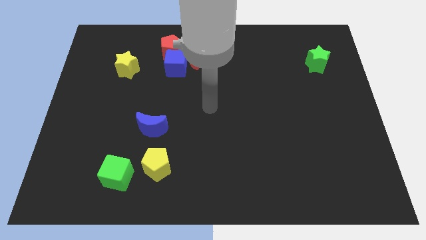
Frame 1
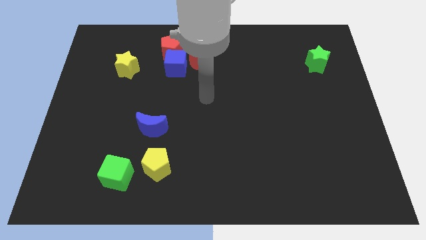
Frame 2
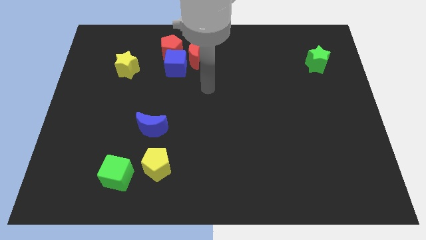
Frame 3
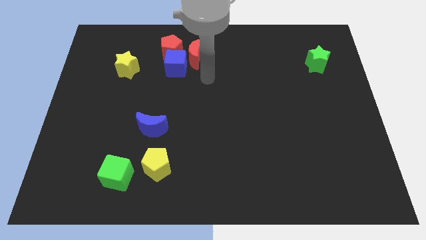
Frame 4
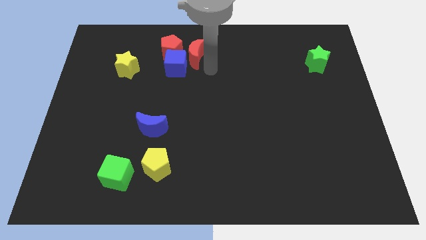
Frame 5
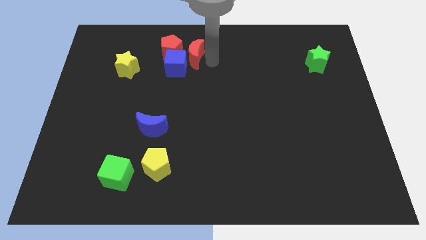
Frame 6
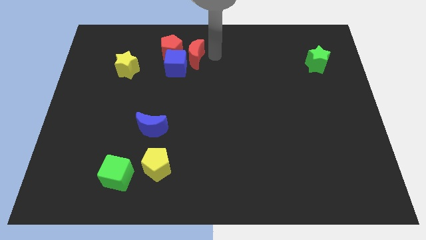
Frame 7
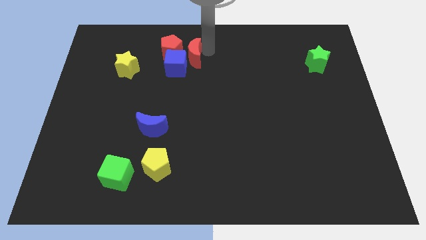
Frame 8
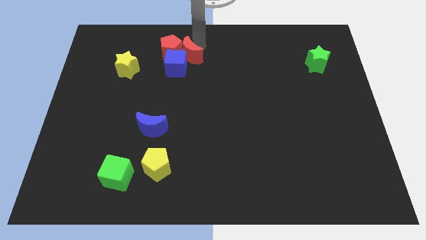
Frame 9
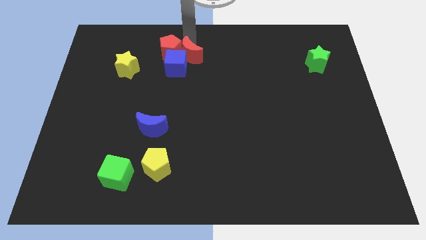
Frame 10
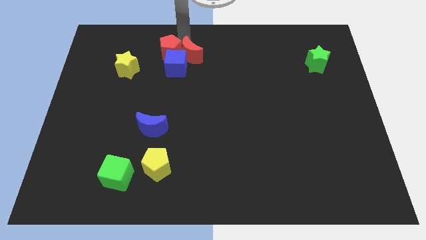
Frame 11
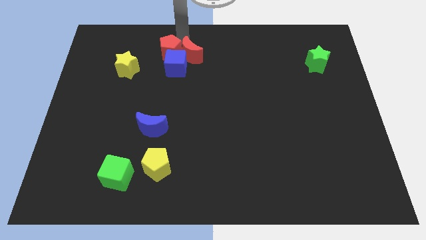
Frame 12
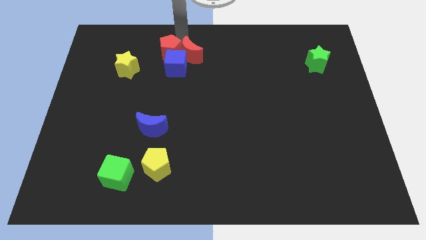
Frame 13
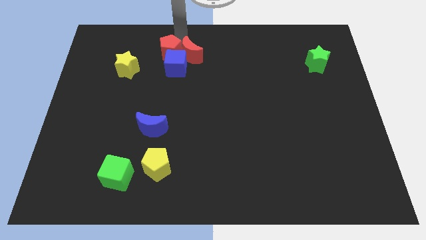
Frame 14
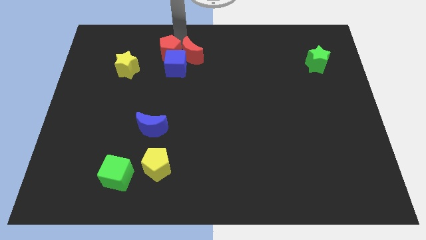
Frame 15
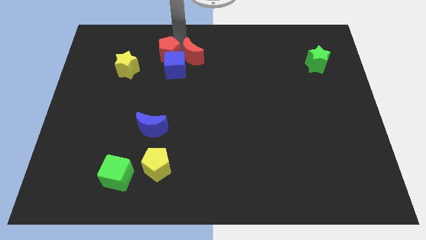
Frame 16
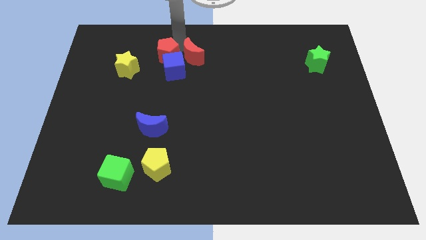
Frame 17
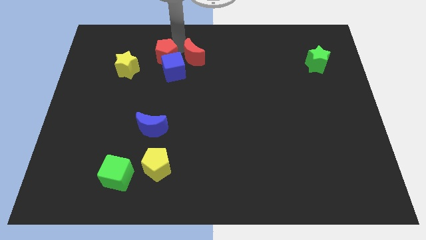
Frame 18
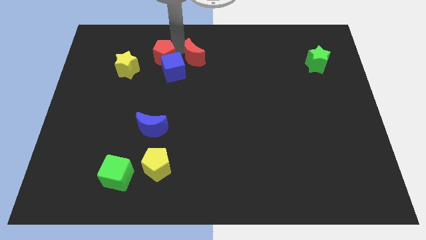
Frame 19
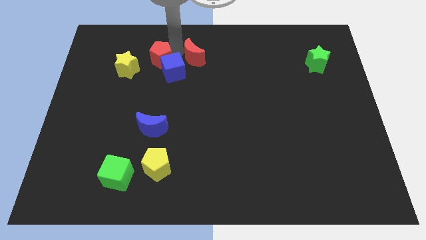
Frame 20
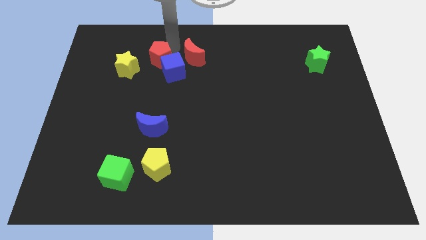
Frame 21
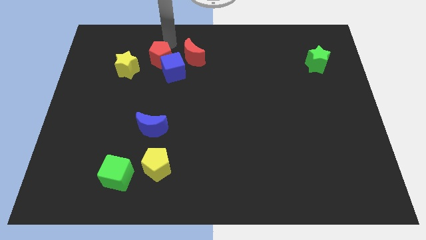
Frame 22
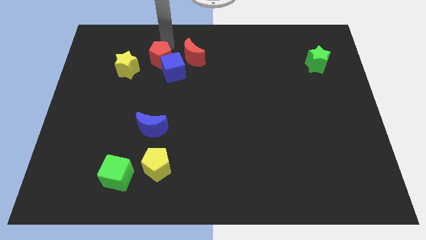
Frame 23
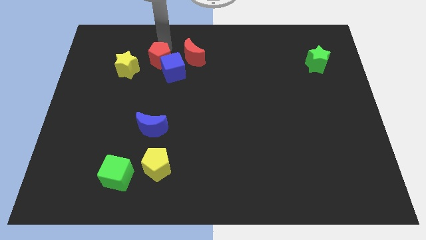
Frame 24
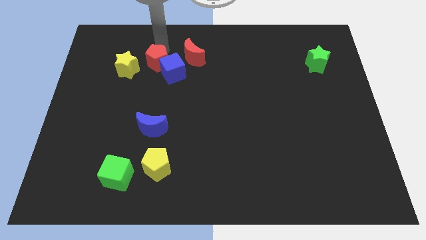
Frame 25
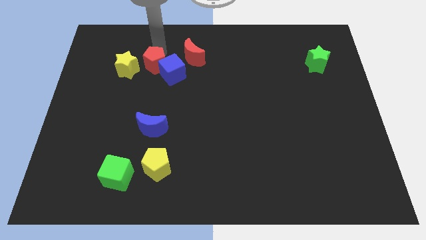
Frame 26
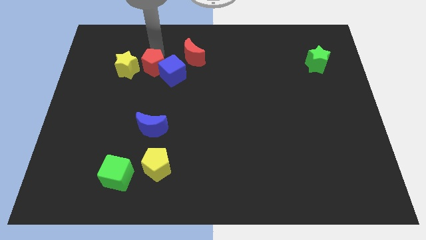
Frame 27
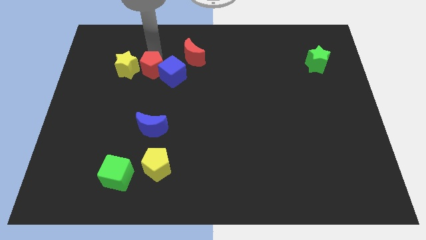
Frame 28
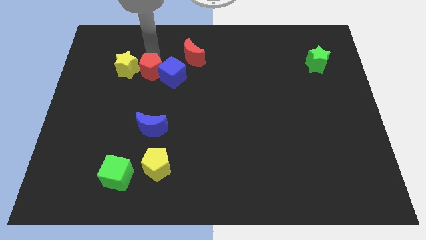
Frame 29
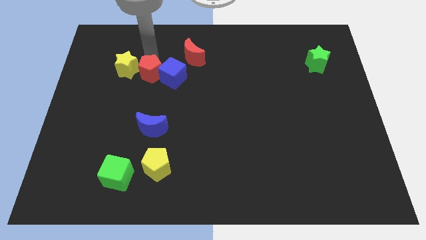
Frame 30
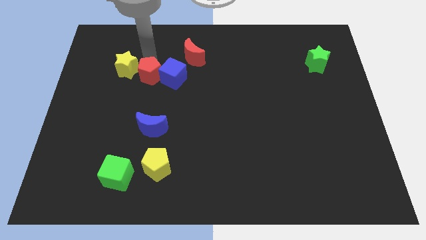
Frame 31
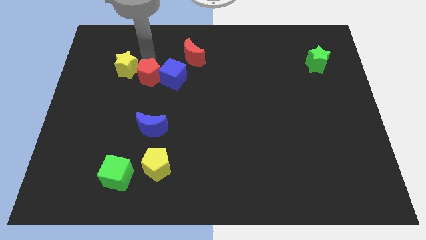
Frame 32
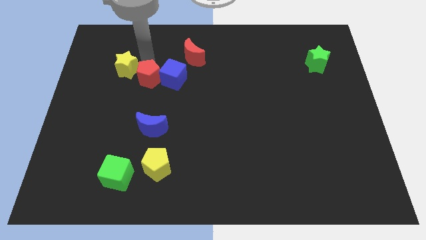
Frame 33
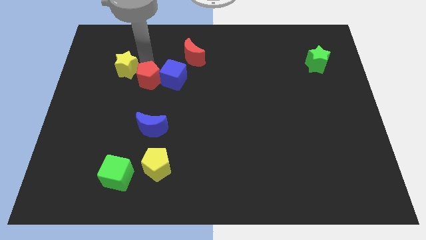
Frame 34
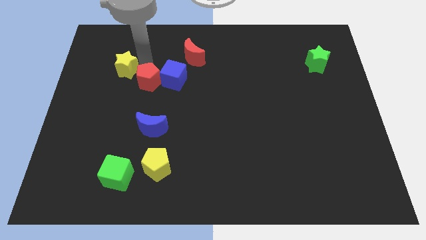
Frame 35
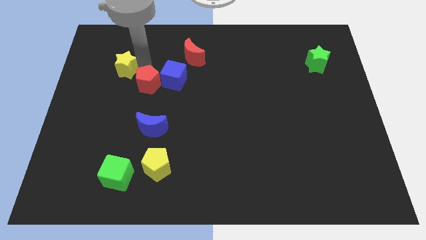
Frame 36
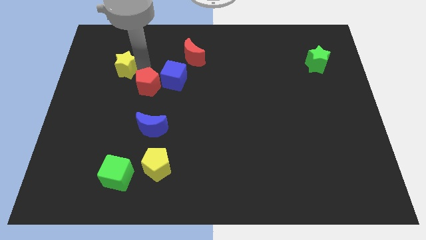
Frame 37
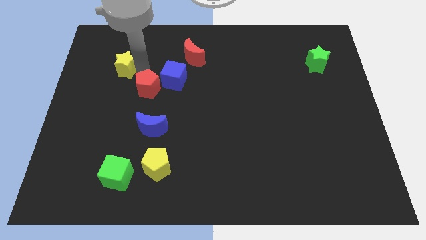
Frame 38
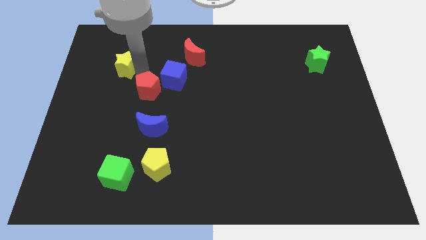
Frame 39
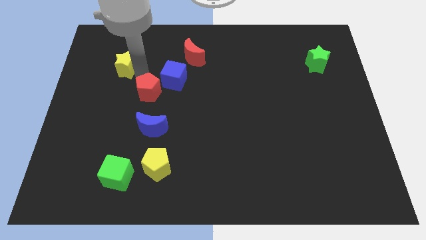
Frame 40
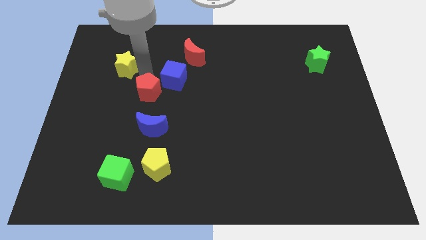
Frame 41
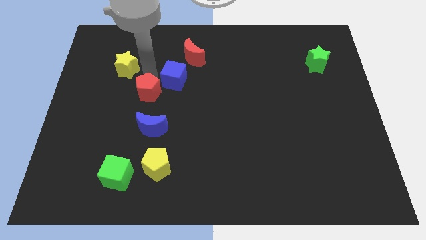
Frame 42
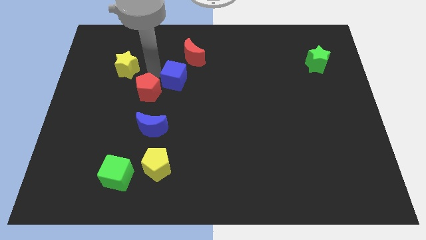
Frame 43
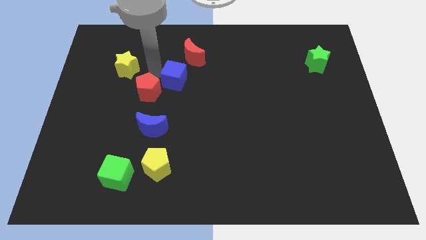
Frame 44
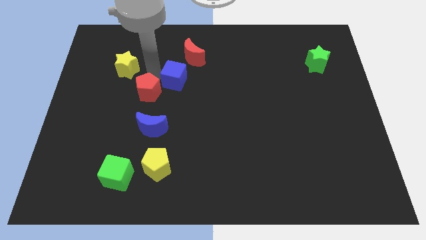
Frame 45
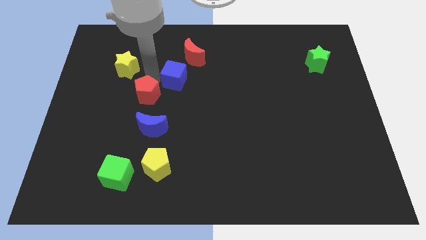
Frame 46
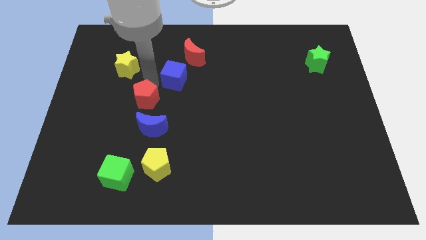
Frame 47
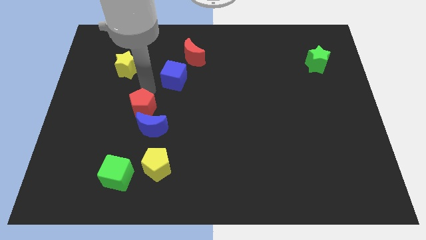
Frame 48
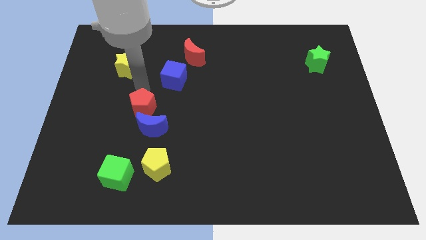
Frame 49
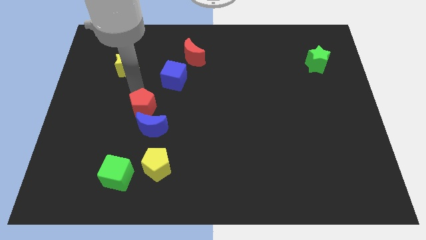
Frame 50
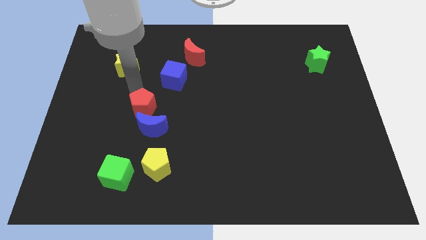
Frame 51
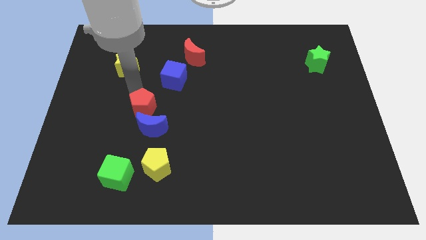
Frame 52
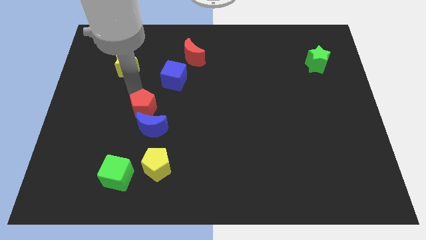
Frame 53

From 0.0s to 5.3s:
slide the red pentagon to the blue moon

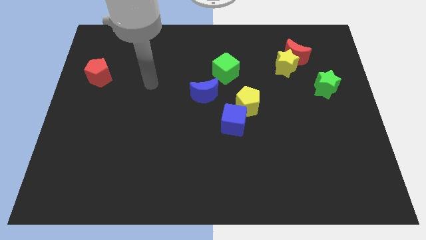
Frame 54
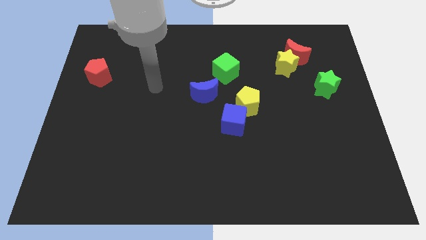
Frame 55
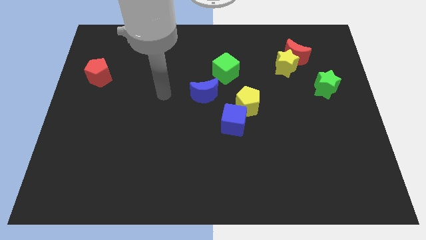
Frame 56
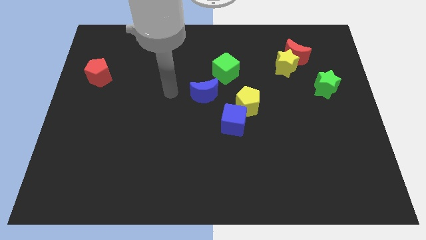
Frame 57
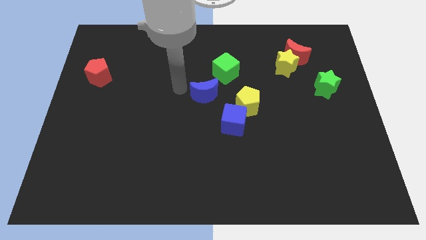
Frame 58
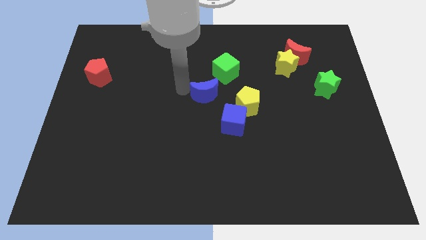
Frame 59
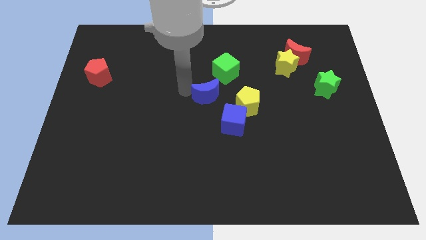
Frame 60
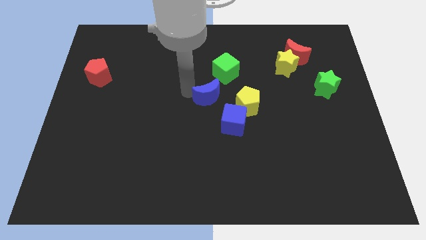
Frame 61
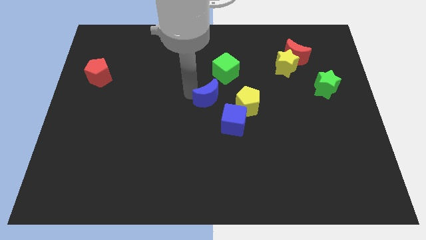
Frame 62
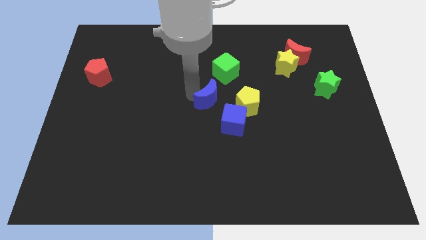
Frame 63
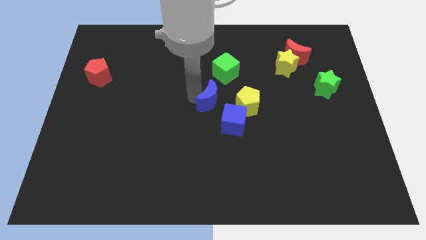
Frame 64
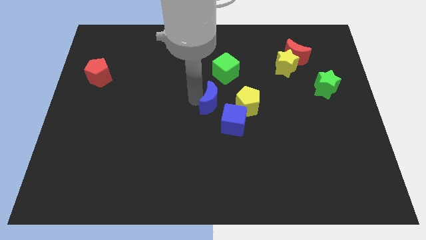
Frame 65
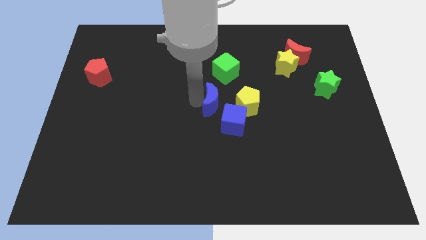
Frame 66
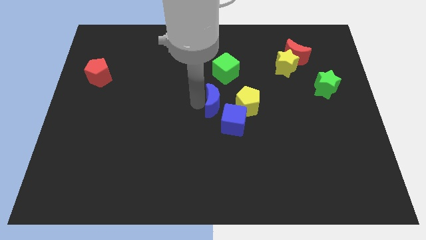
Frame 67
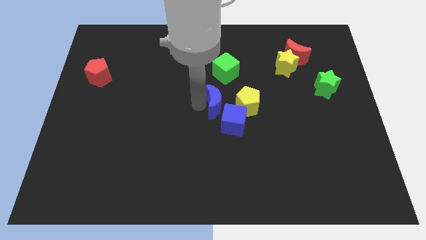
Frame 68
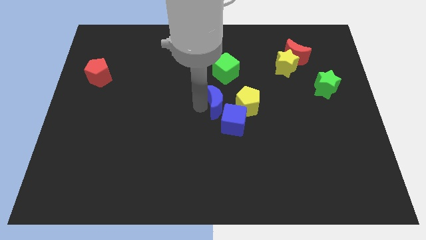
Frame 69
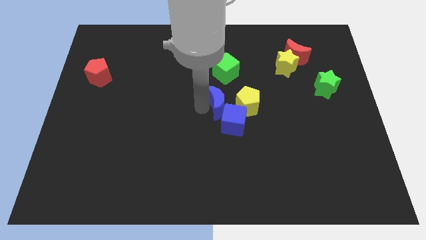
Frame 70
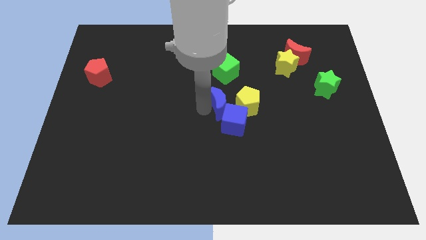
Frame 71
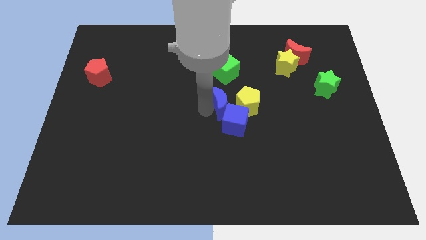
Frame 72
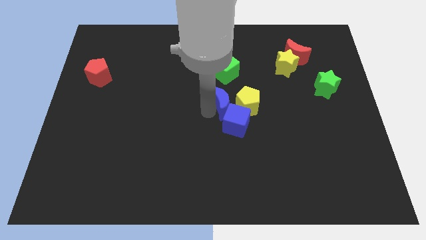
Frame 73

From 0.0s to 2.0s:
move the blue moon to the yellow pentagon
